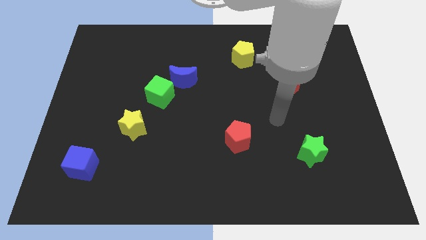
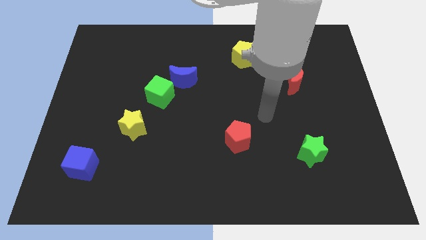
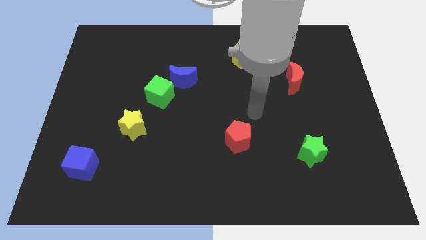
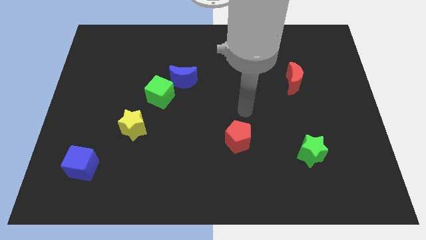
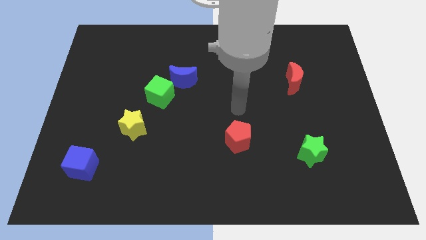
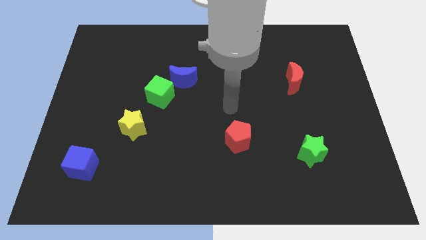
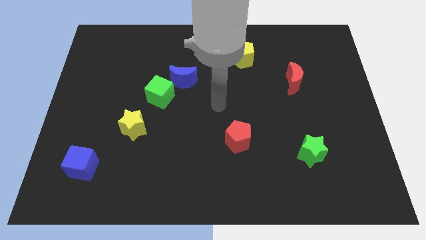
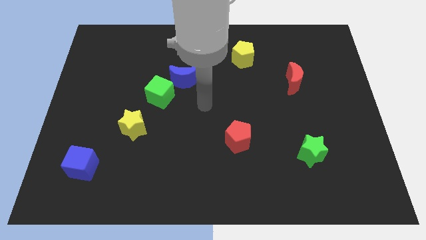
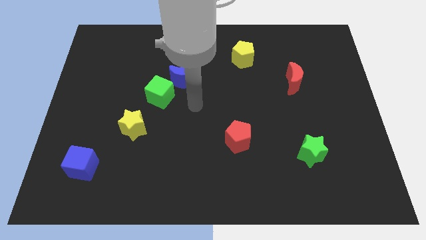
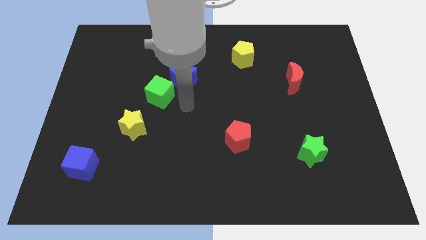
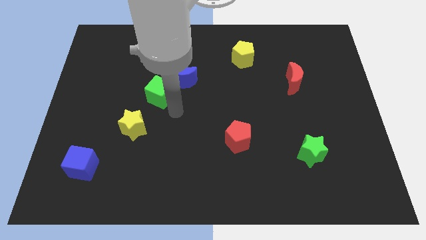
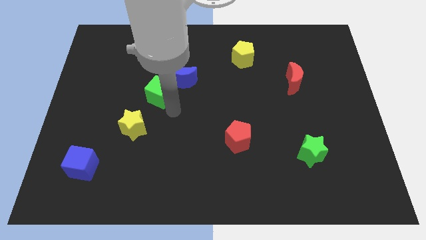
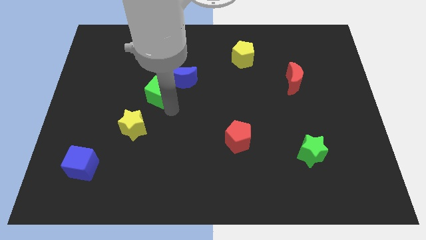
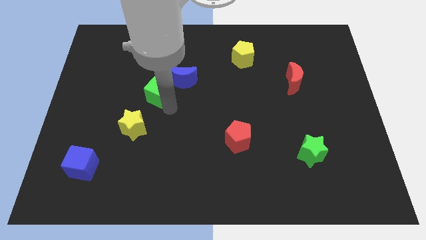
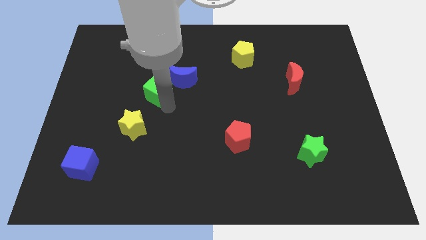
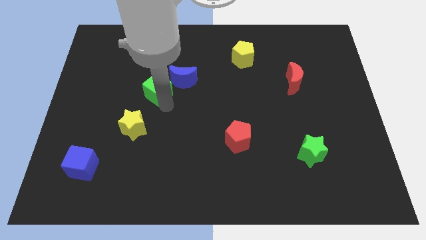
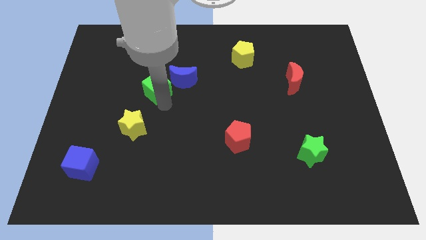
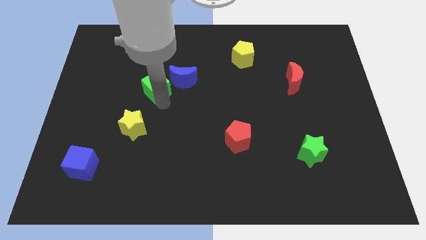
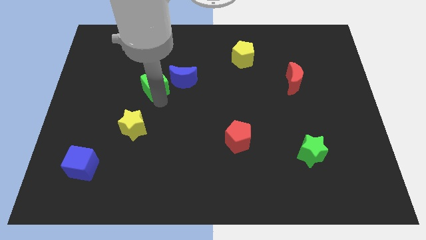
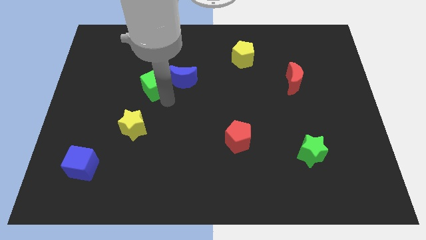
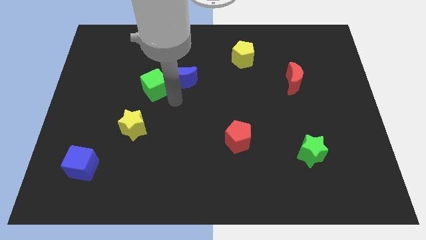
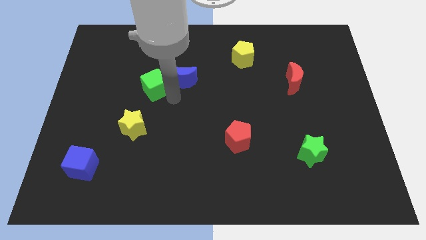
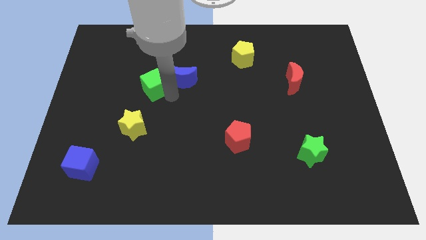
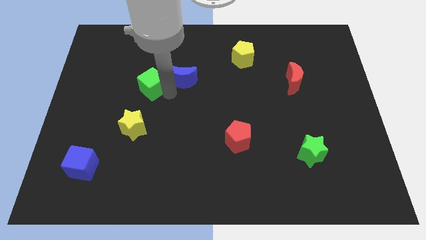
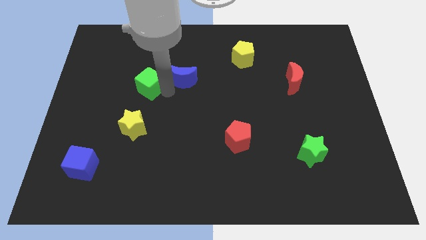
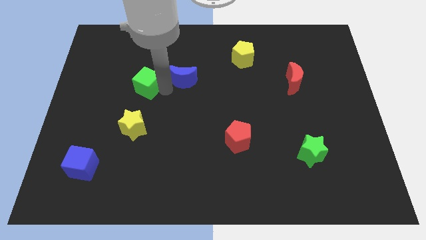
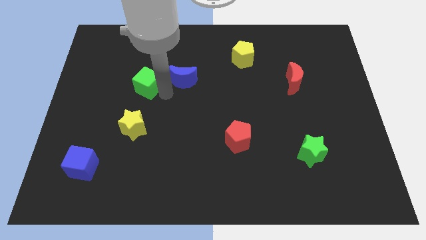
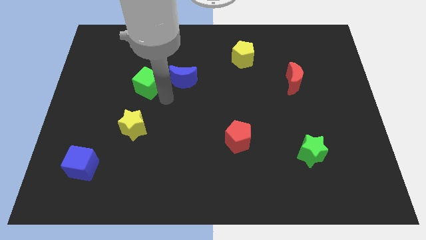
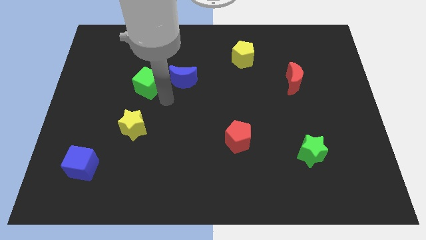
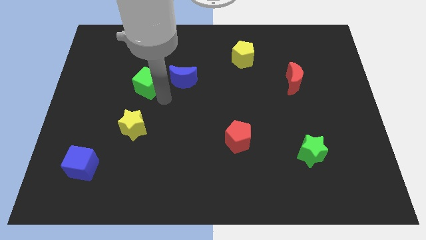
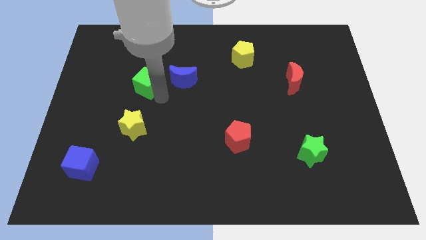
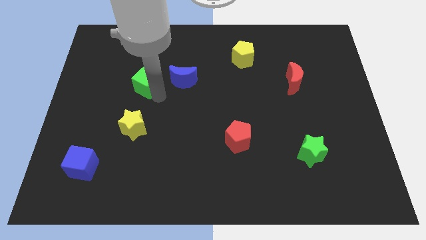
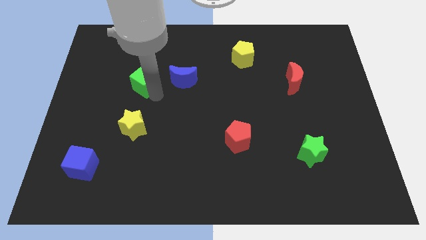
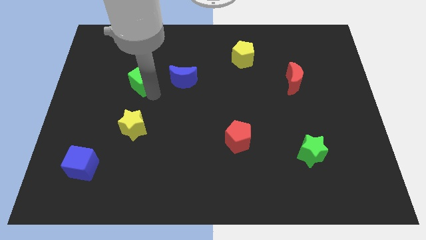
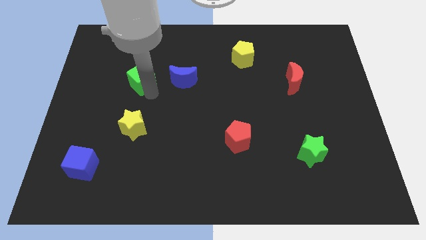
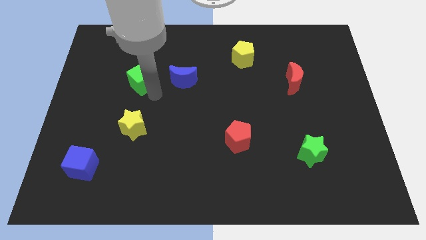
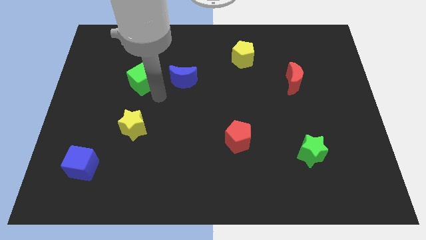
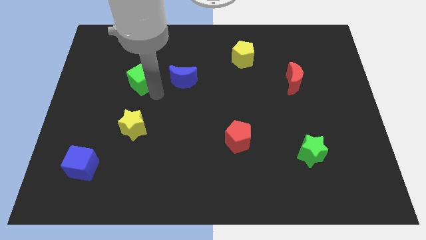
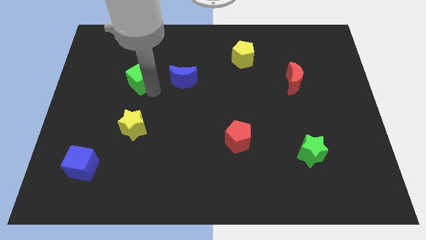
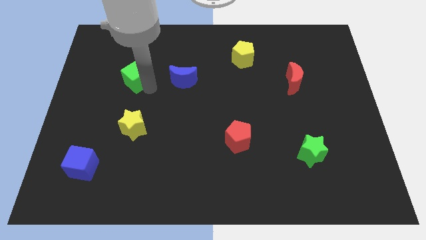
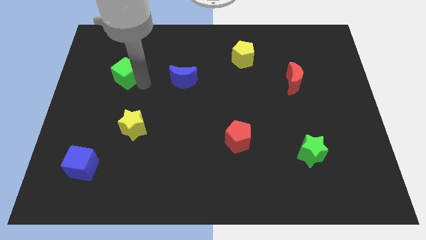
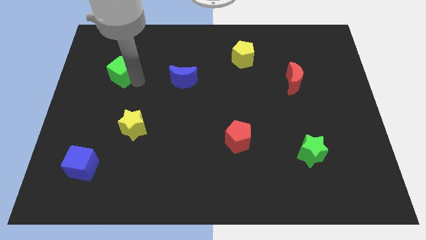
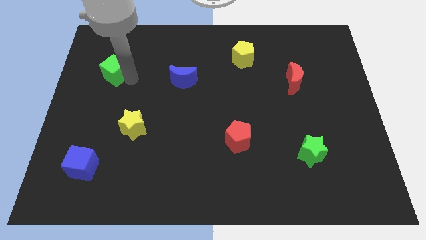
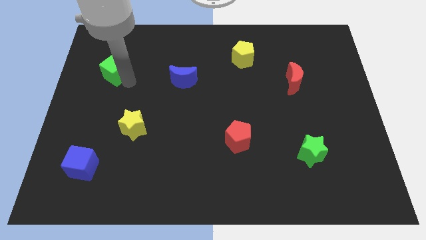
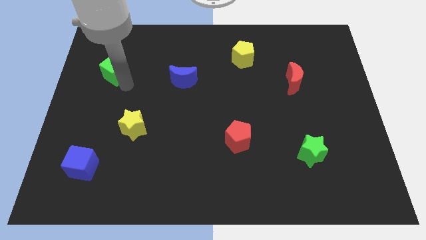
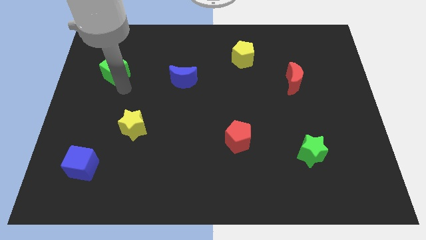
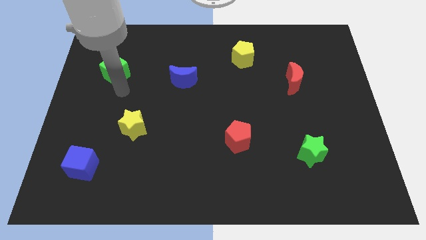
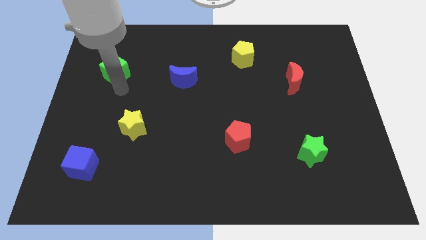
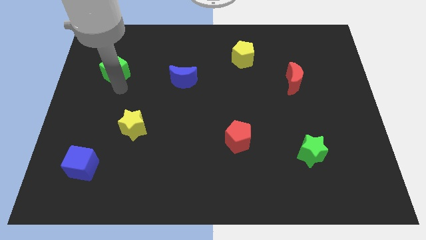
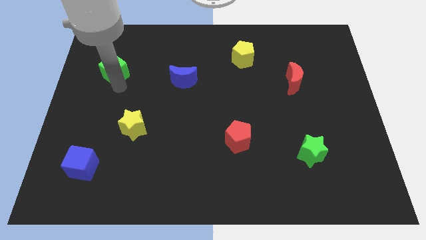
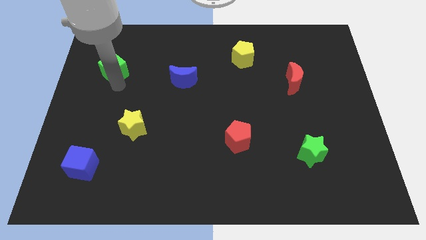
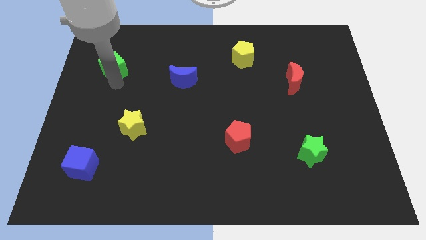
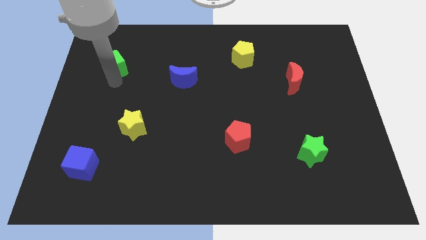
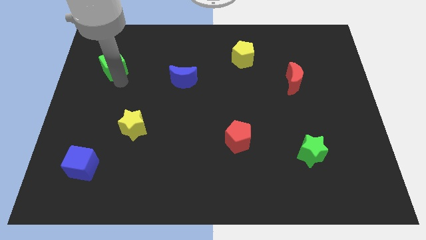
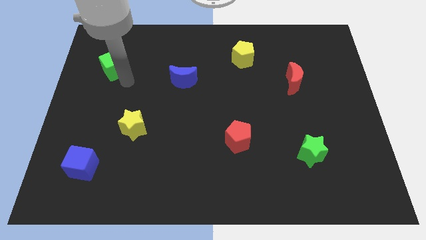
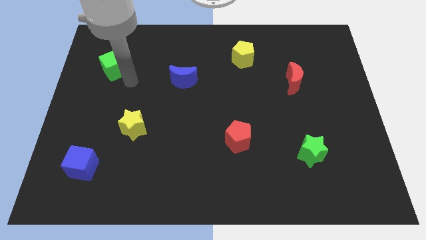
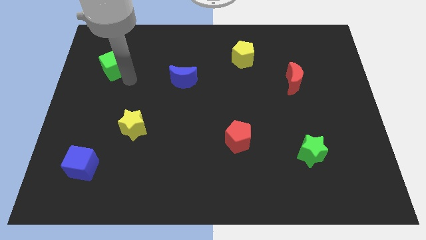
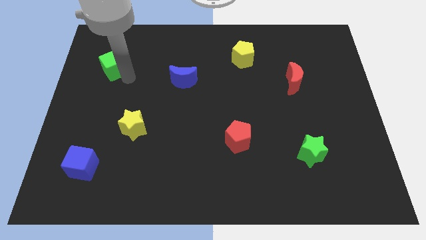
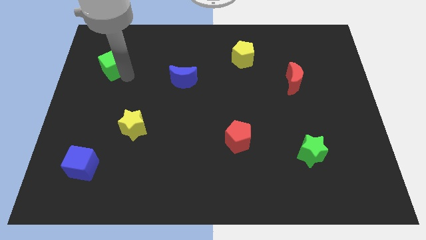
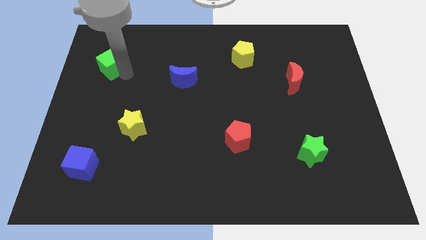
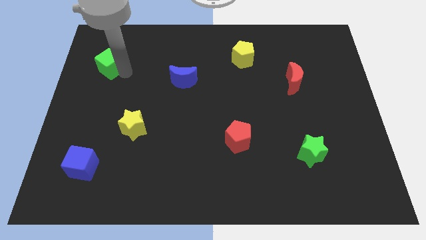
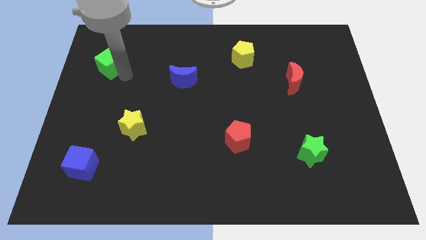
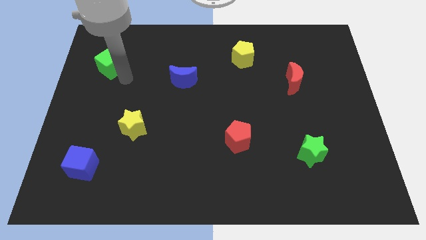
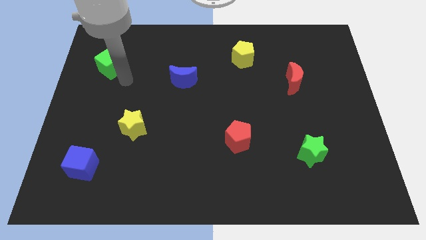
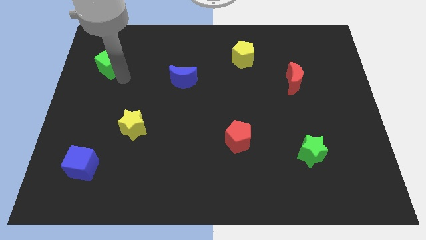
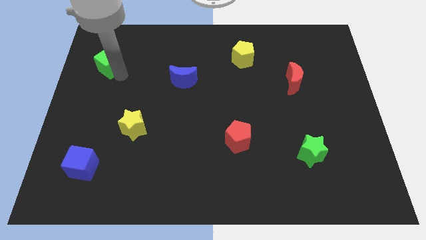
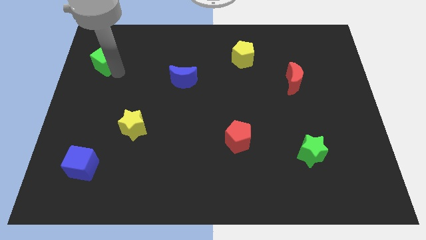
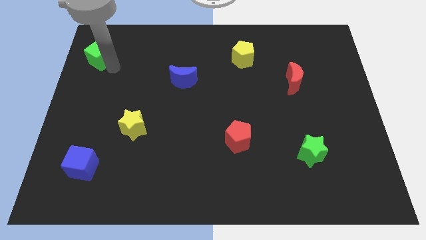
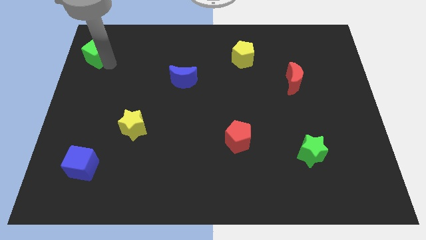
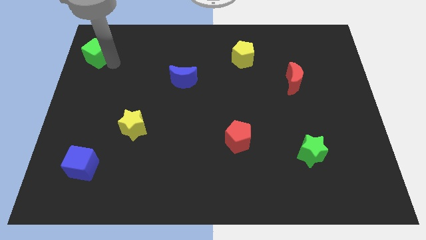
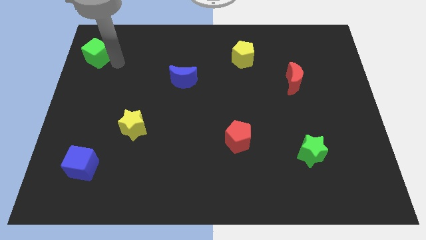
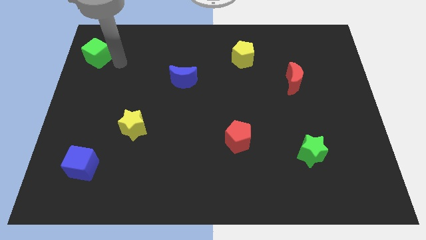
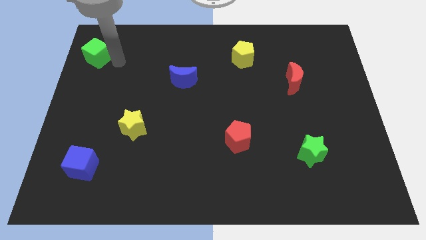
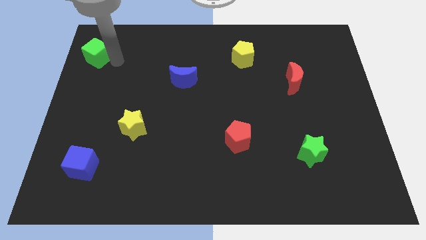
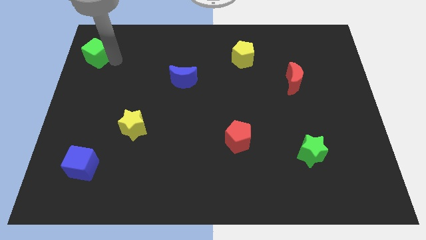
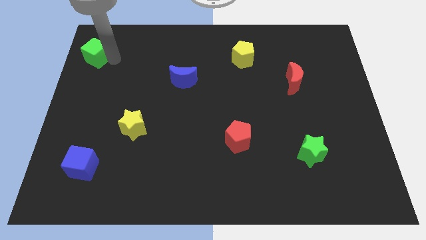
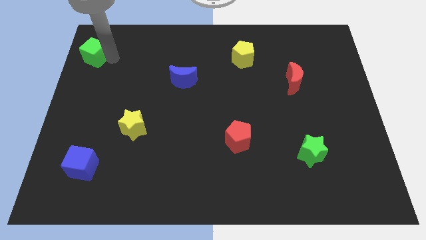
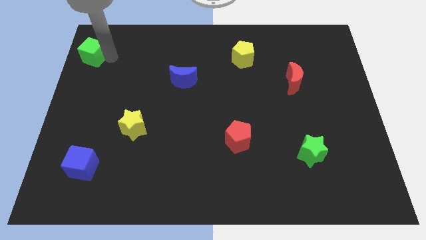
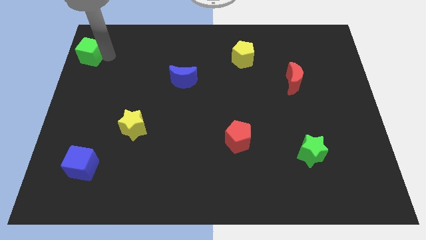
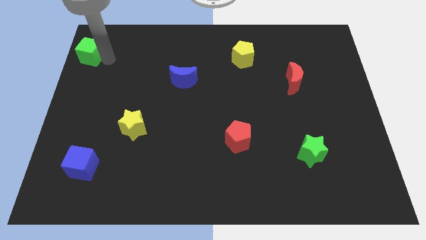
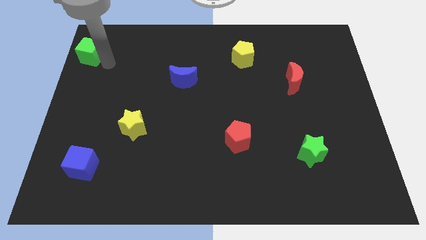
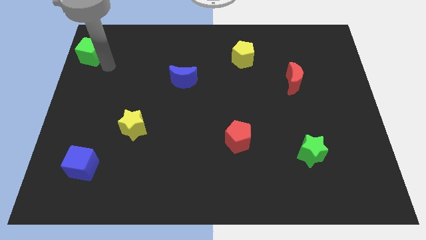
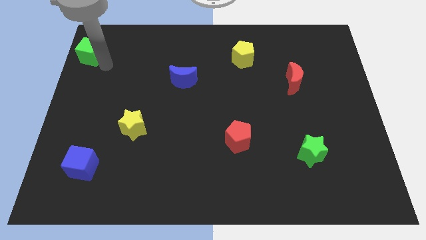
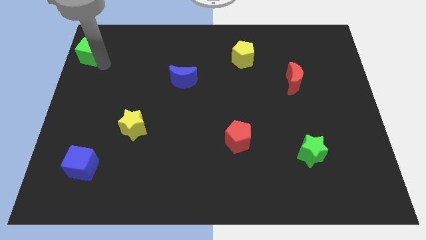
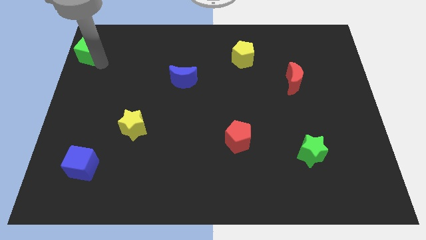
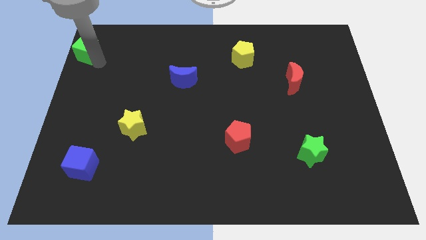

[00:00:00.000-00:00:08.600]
push the green cube to the top left corner
